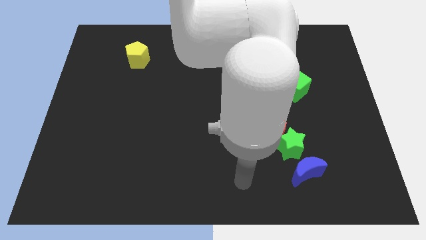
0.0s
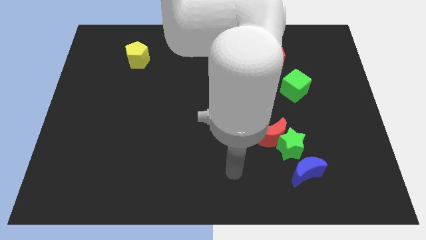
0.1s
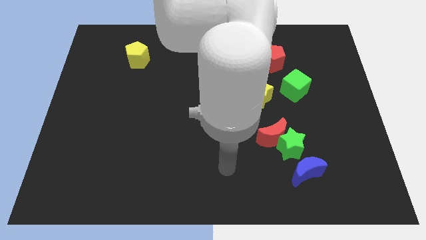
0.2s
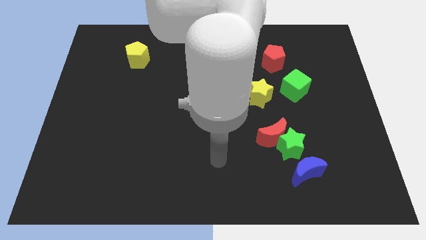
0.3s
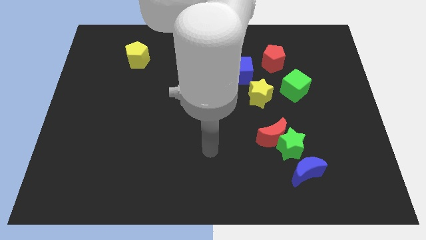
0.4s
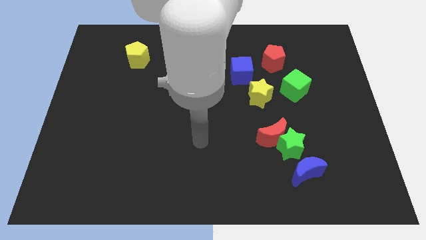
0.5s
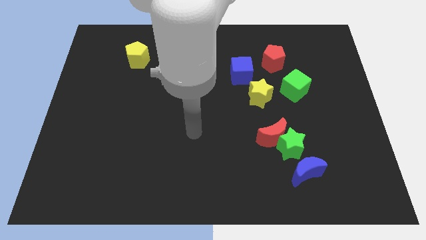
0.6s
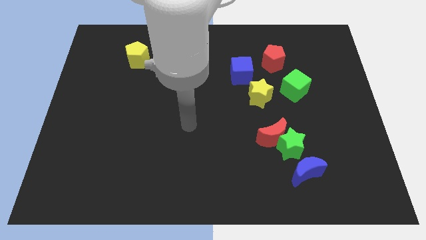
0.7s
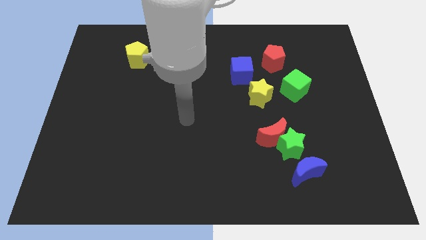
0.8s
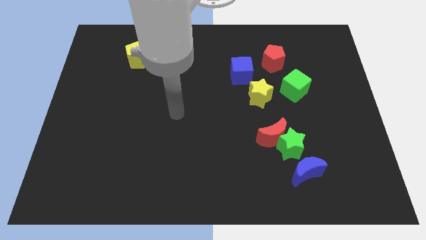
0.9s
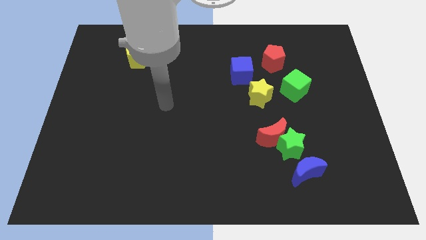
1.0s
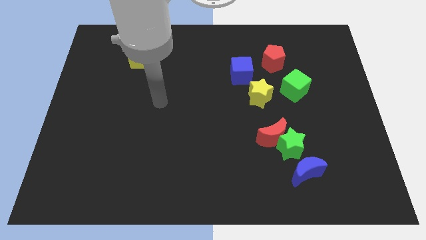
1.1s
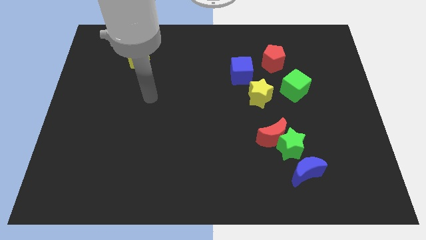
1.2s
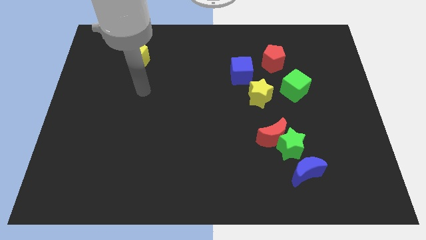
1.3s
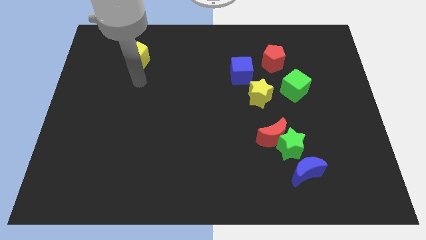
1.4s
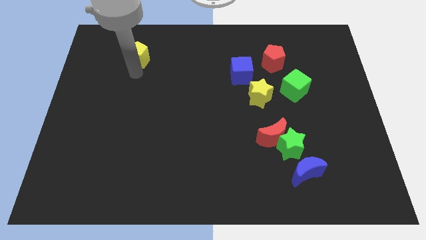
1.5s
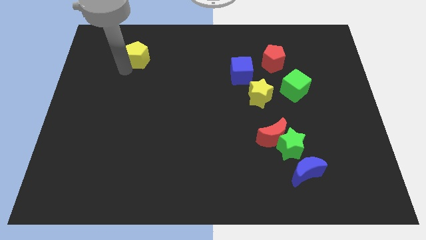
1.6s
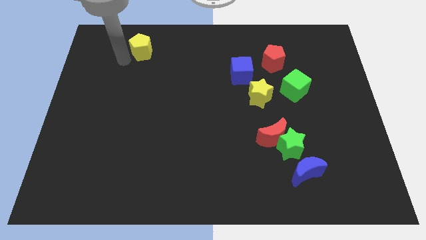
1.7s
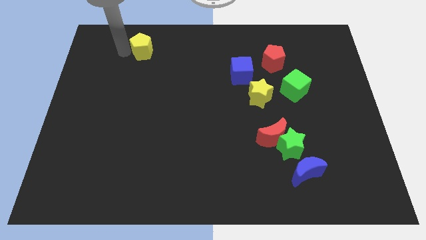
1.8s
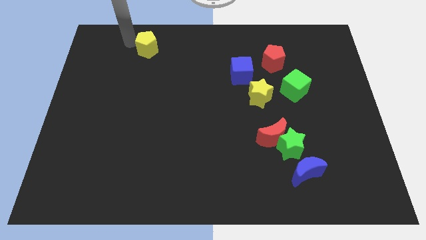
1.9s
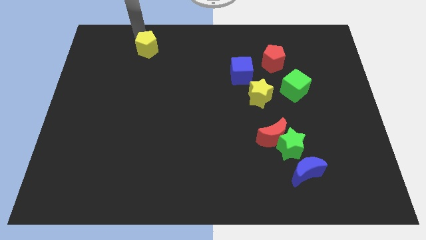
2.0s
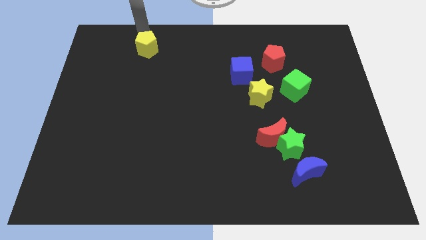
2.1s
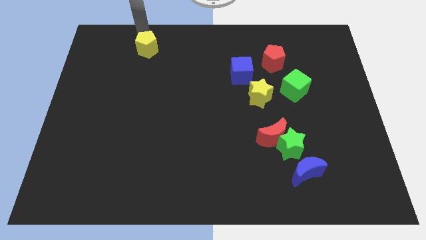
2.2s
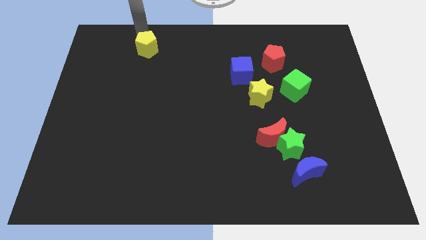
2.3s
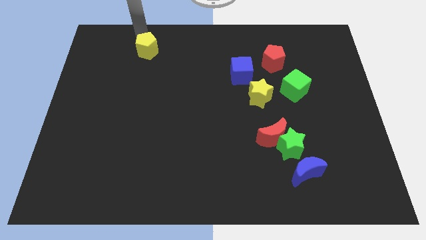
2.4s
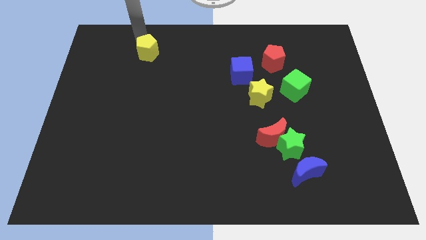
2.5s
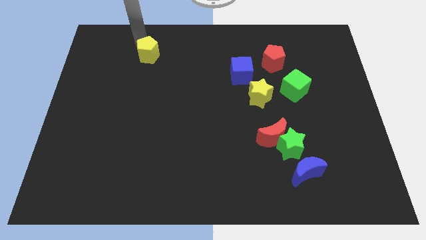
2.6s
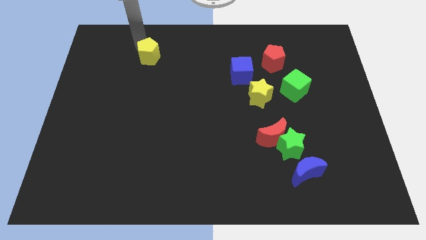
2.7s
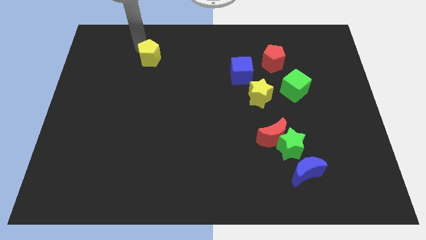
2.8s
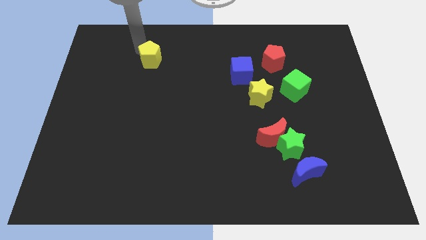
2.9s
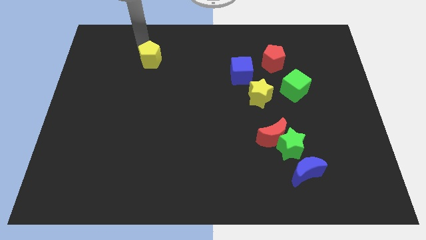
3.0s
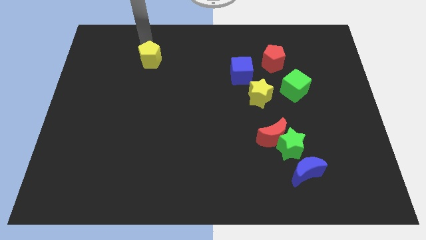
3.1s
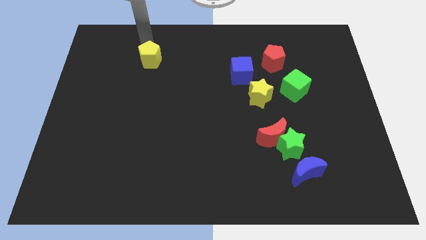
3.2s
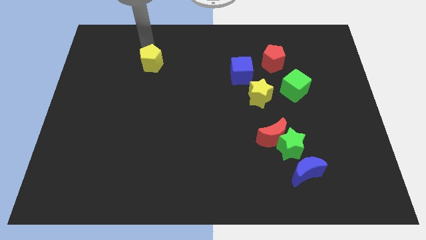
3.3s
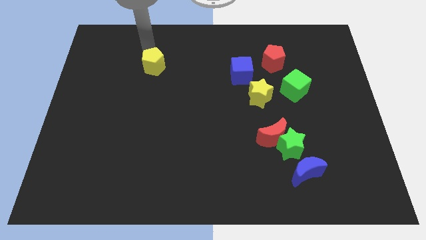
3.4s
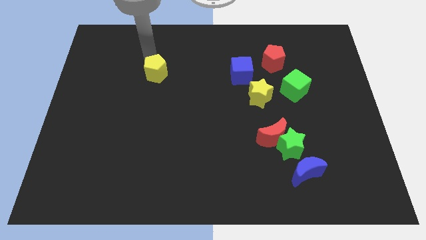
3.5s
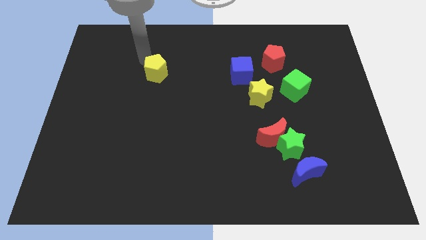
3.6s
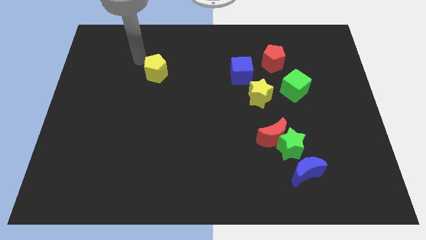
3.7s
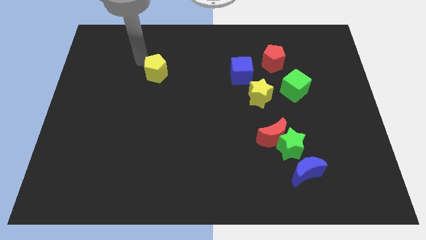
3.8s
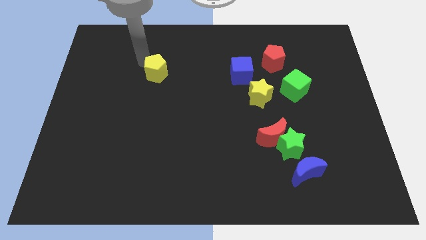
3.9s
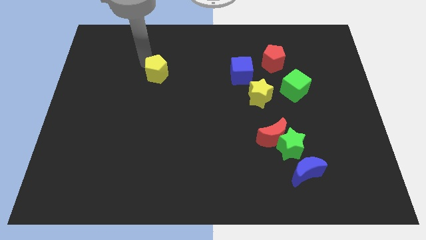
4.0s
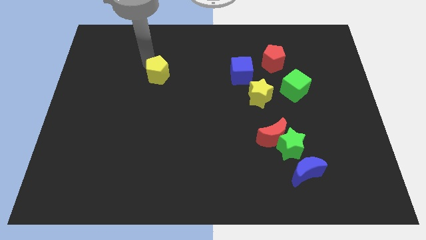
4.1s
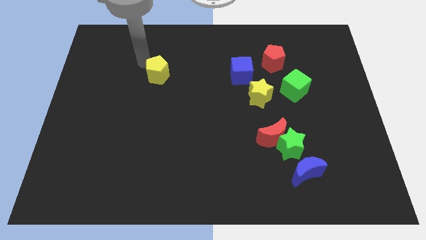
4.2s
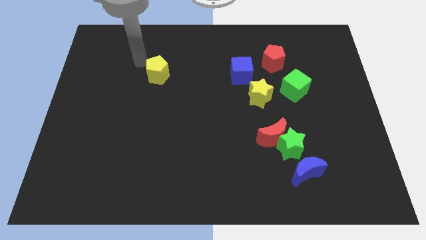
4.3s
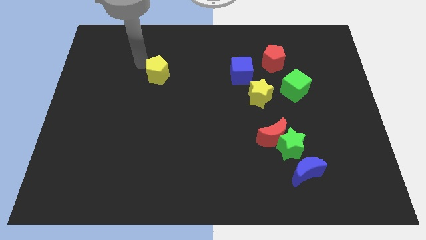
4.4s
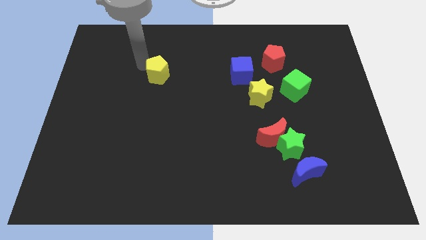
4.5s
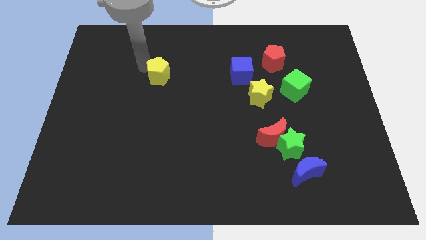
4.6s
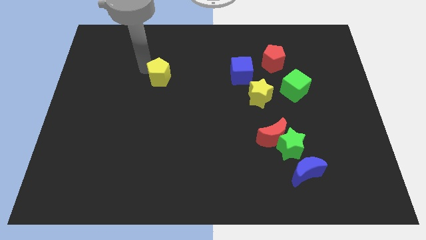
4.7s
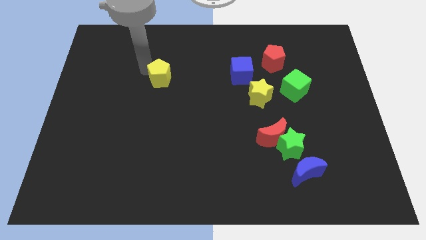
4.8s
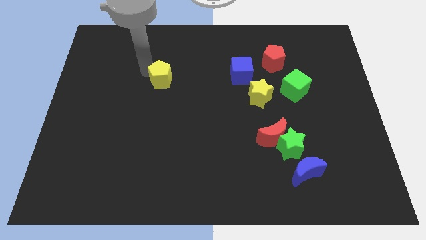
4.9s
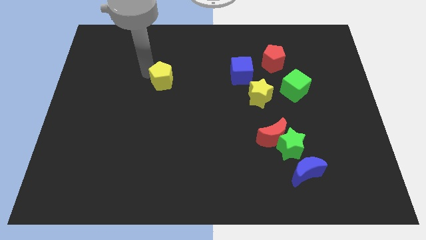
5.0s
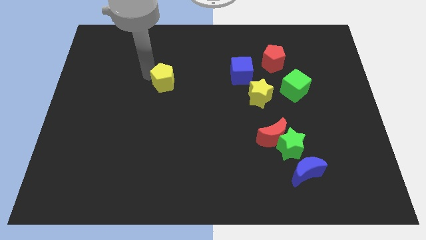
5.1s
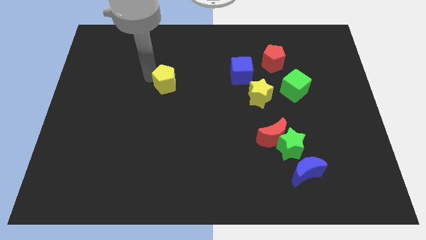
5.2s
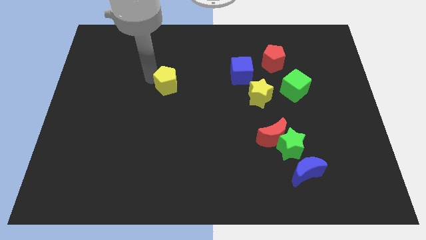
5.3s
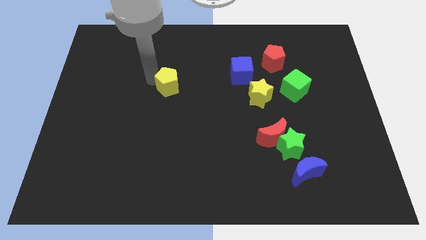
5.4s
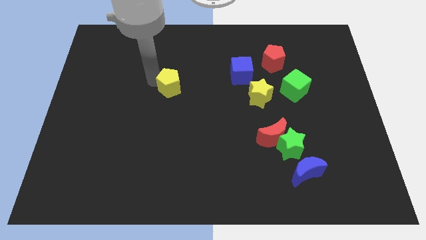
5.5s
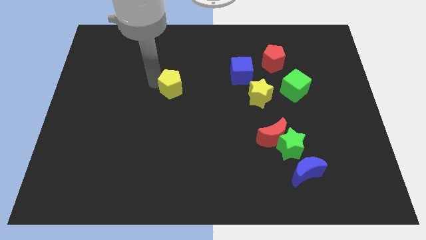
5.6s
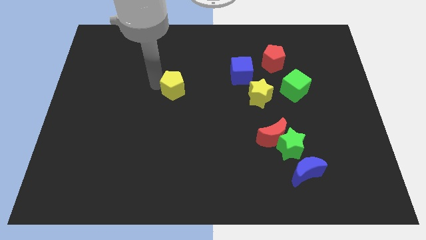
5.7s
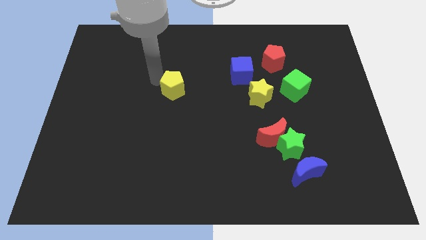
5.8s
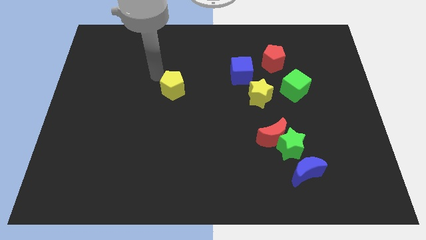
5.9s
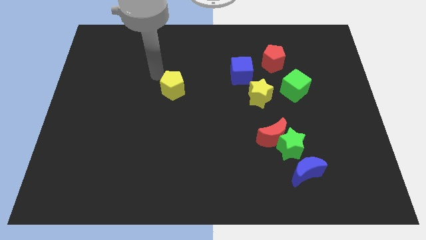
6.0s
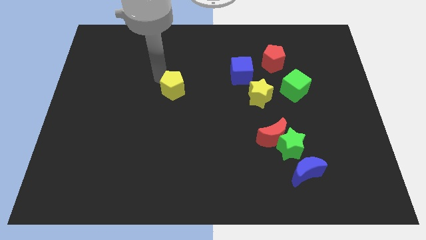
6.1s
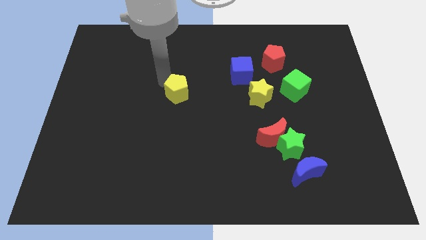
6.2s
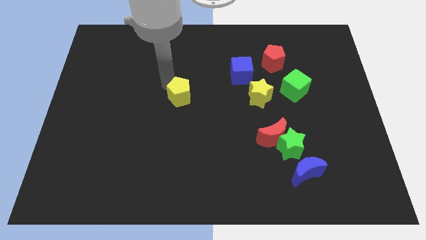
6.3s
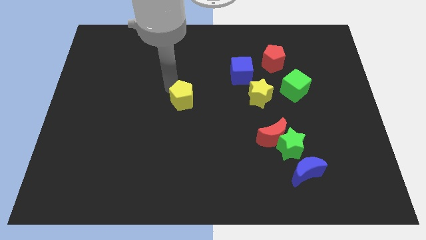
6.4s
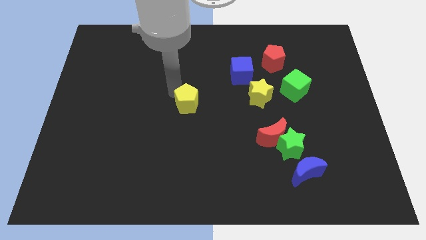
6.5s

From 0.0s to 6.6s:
push the yellow pentagon down and right

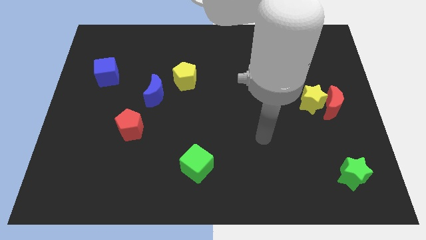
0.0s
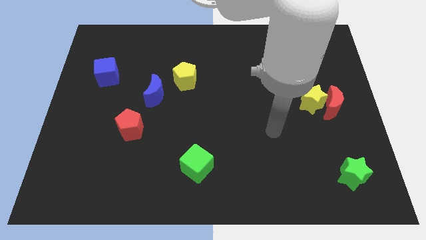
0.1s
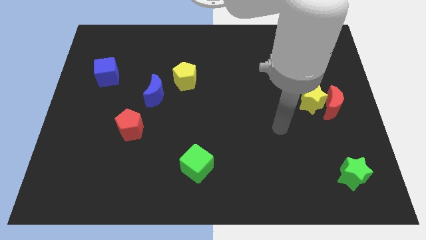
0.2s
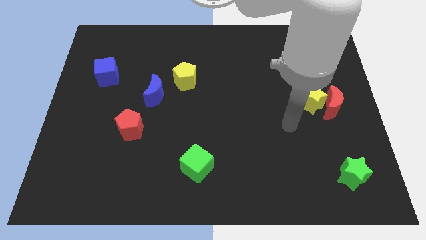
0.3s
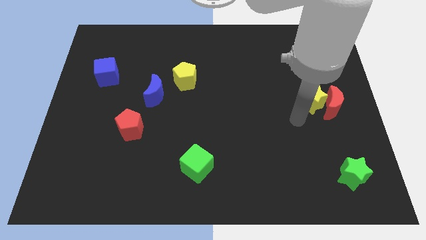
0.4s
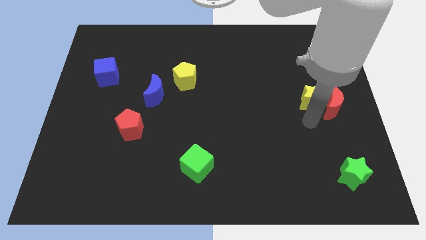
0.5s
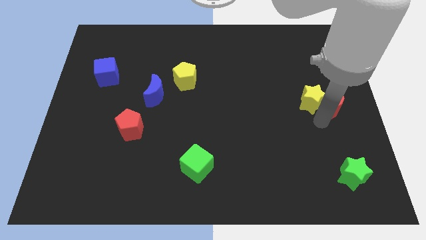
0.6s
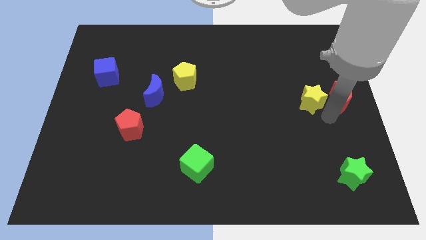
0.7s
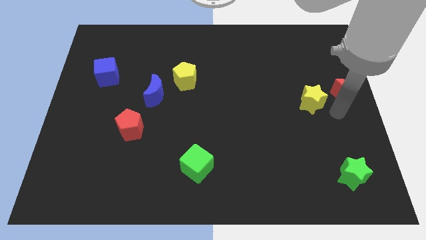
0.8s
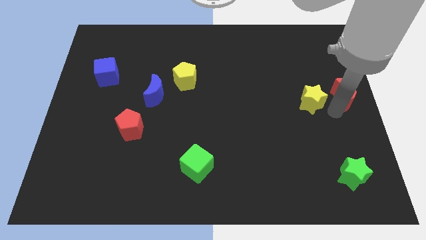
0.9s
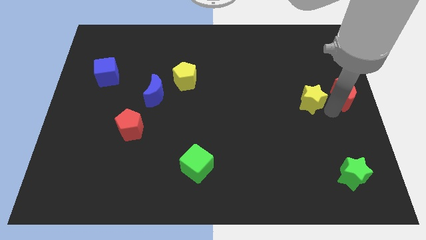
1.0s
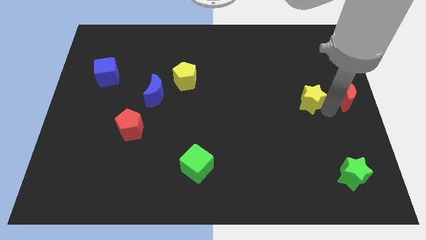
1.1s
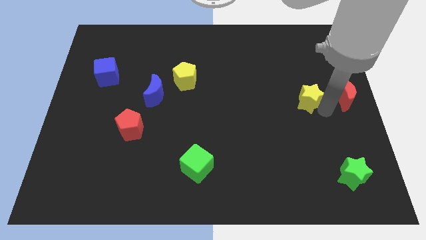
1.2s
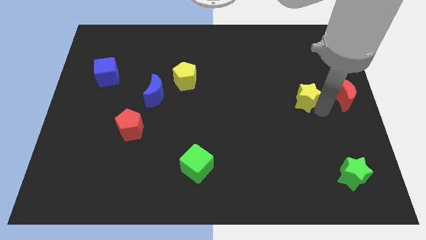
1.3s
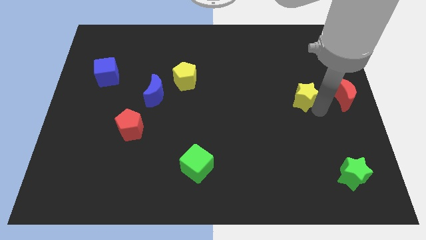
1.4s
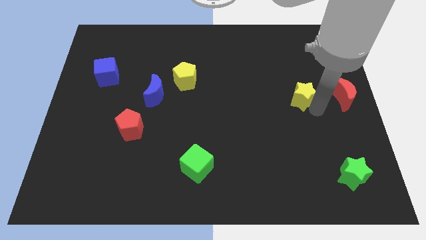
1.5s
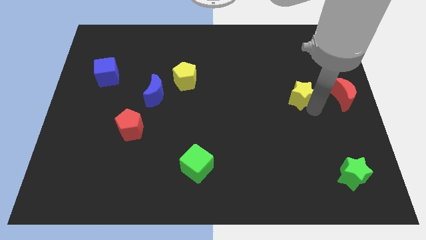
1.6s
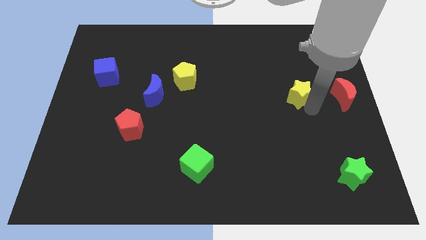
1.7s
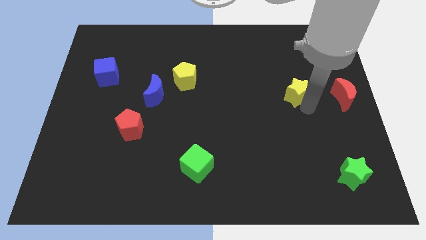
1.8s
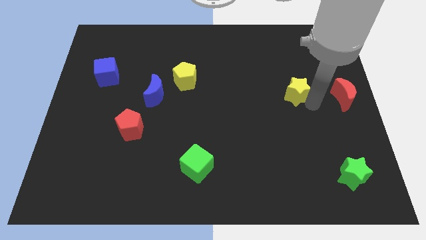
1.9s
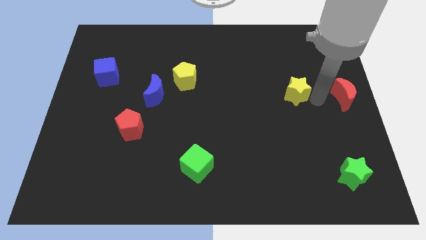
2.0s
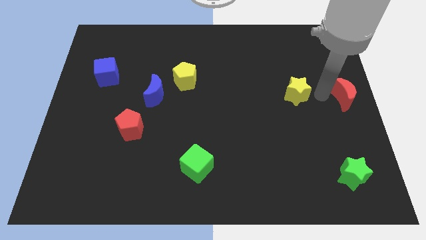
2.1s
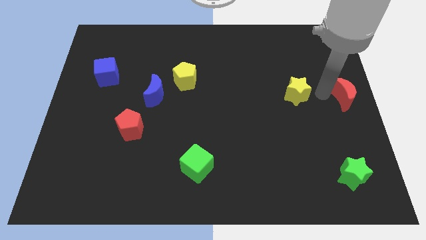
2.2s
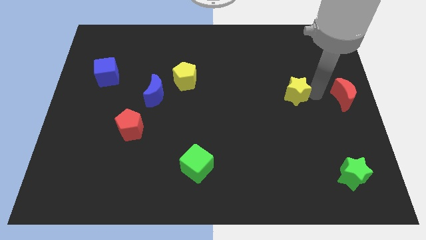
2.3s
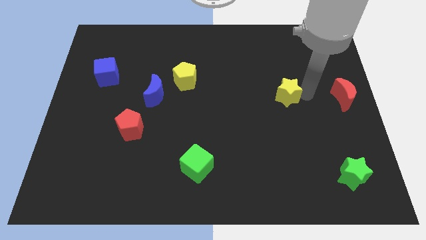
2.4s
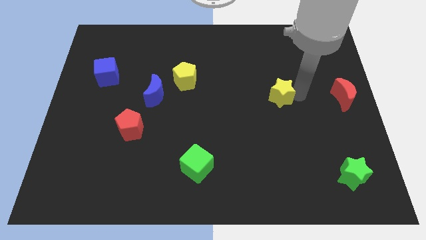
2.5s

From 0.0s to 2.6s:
slightly push the yellow star left
